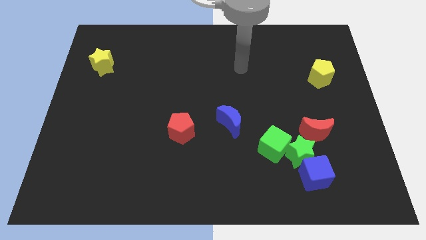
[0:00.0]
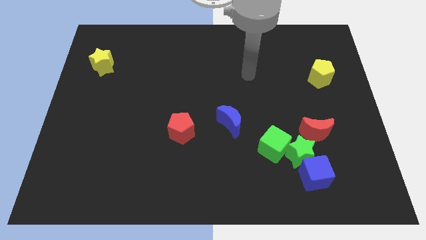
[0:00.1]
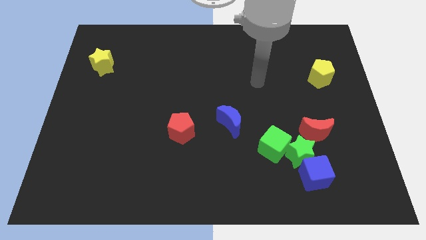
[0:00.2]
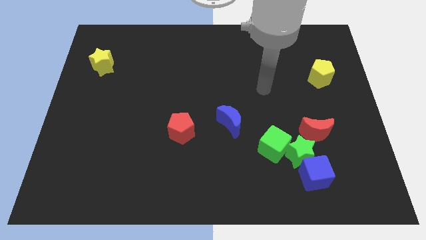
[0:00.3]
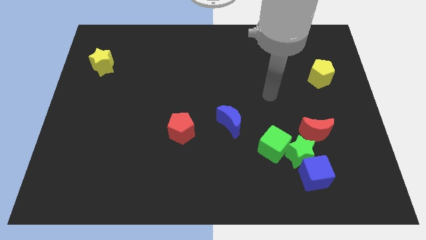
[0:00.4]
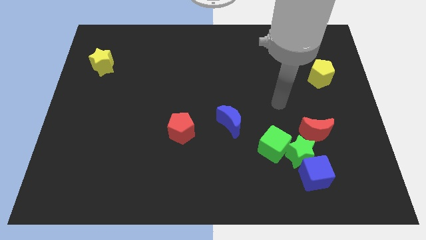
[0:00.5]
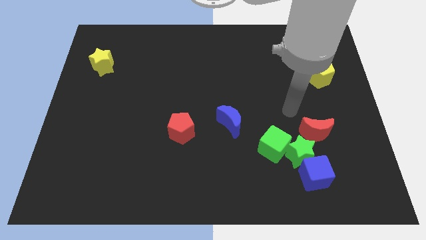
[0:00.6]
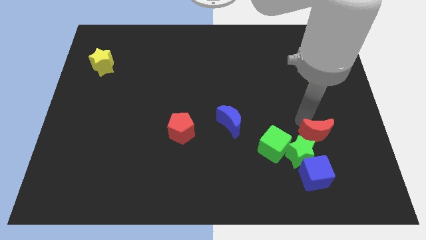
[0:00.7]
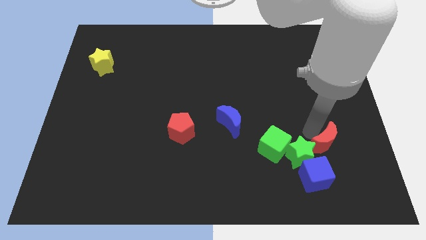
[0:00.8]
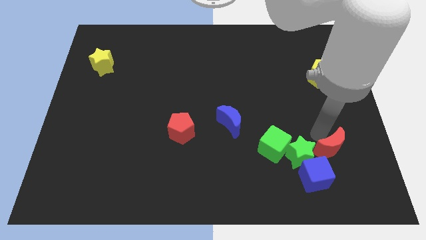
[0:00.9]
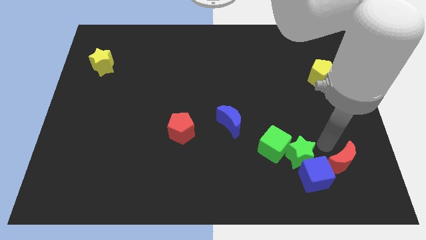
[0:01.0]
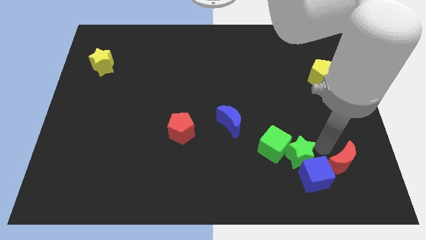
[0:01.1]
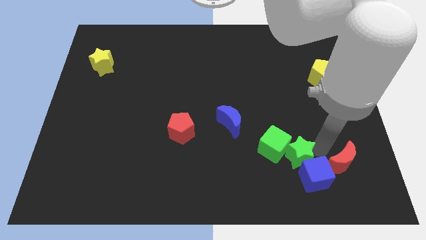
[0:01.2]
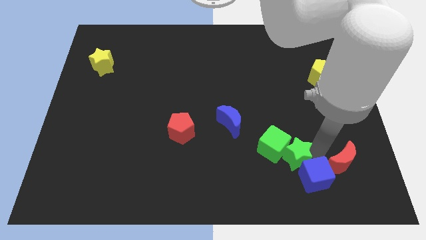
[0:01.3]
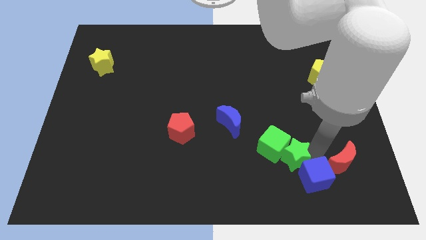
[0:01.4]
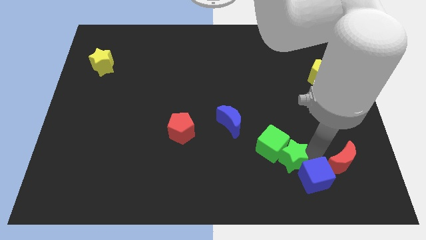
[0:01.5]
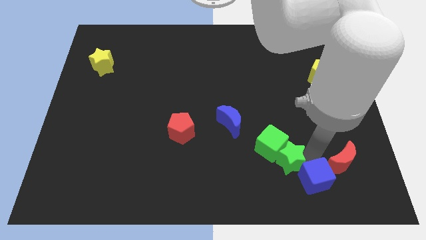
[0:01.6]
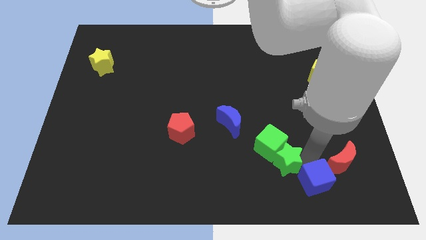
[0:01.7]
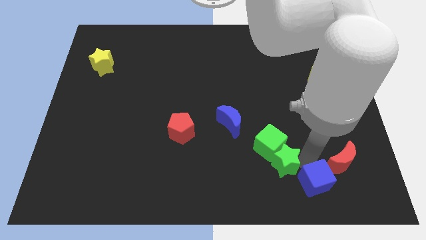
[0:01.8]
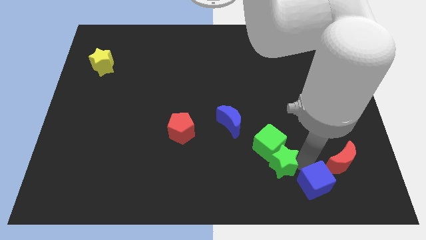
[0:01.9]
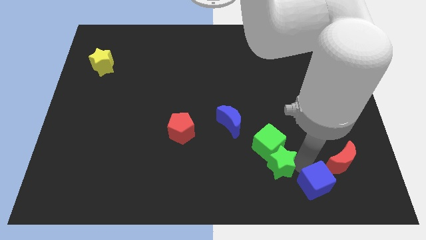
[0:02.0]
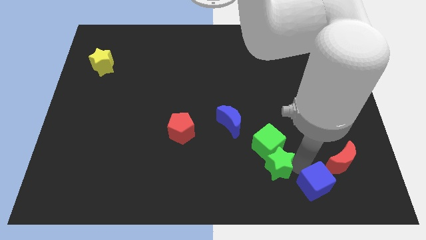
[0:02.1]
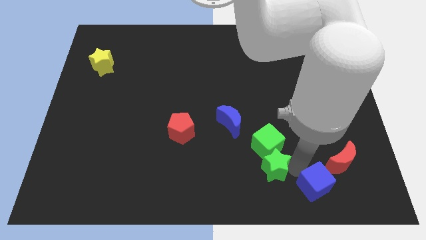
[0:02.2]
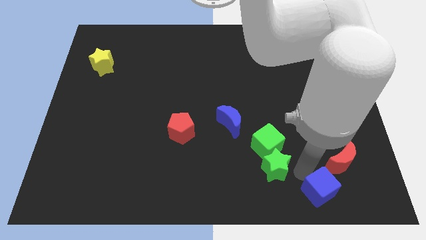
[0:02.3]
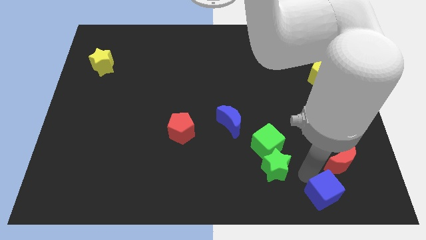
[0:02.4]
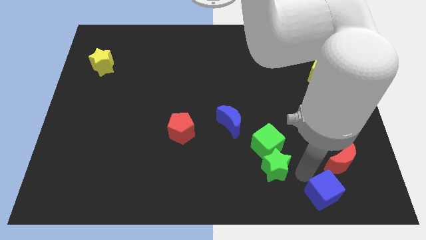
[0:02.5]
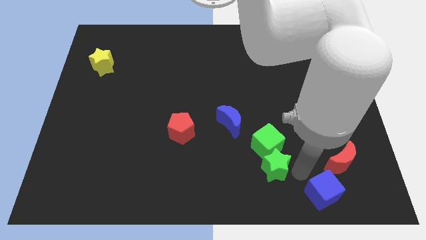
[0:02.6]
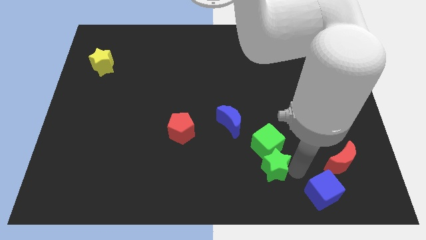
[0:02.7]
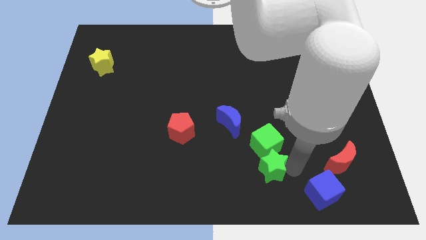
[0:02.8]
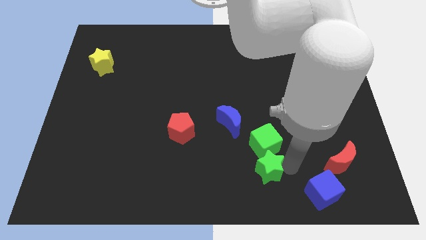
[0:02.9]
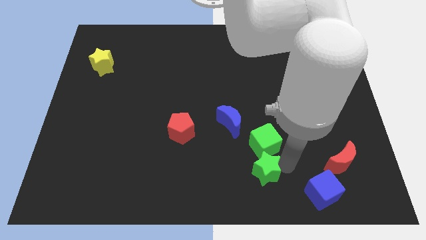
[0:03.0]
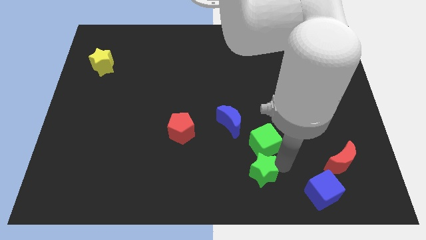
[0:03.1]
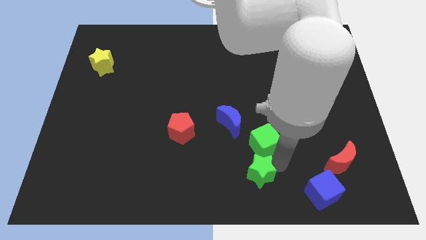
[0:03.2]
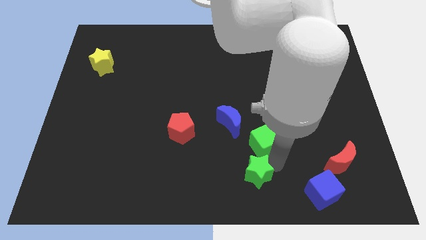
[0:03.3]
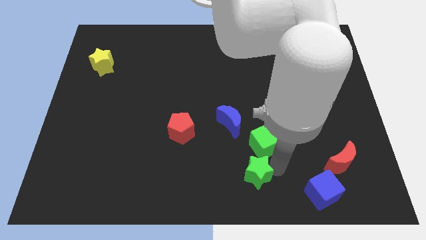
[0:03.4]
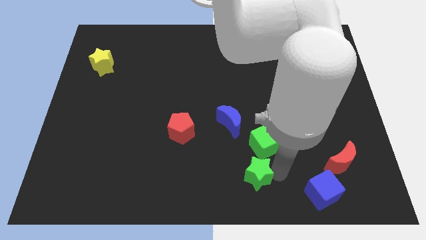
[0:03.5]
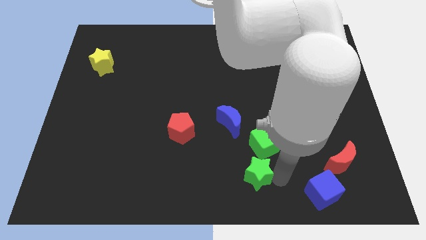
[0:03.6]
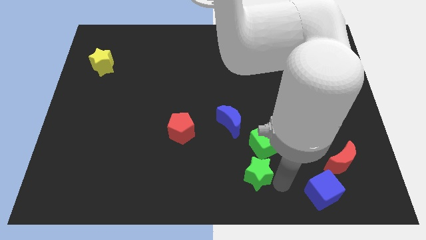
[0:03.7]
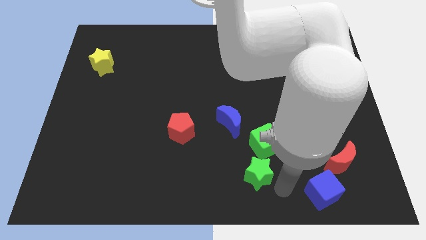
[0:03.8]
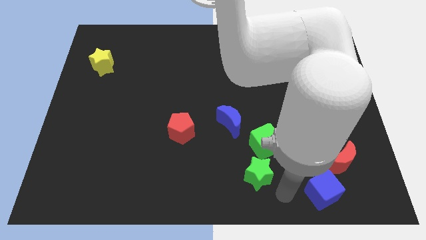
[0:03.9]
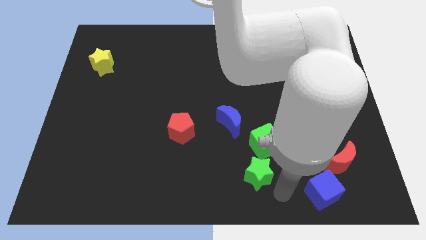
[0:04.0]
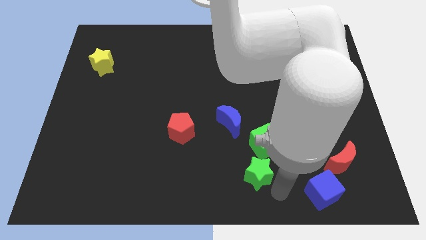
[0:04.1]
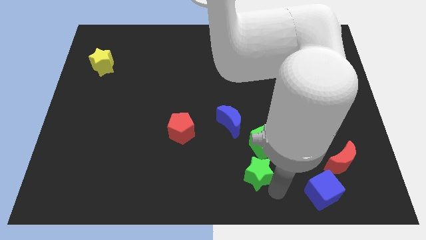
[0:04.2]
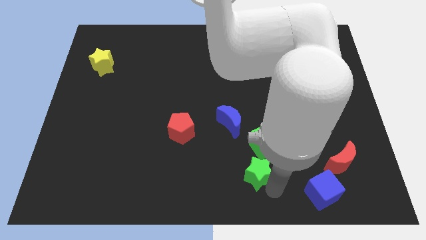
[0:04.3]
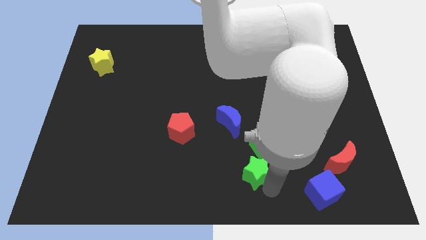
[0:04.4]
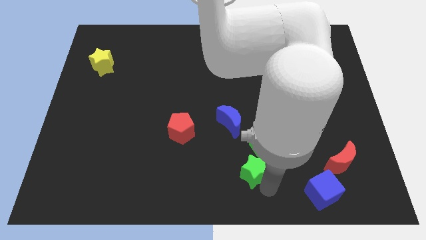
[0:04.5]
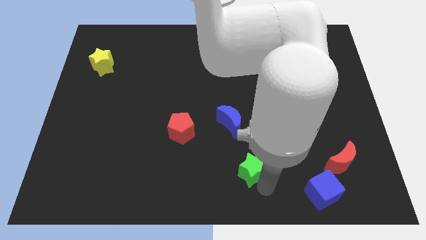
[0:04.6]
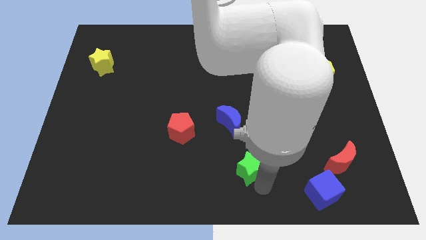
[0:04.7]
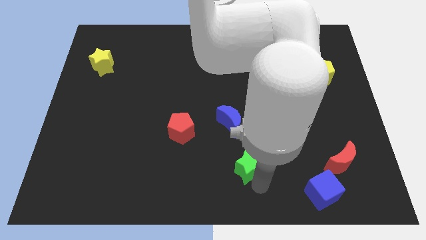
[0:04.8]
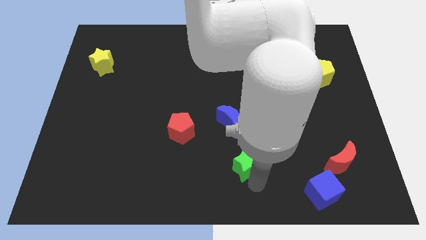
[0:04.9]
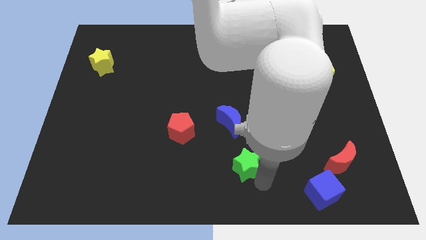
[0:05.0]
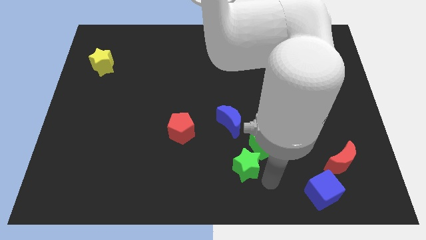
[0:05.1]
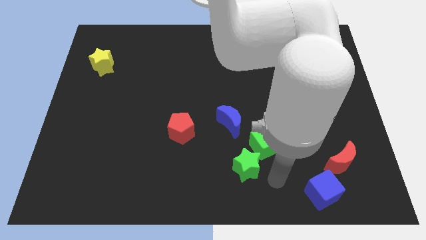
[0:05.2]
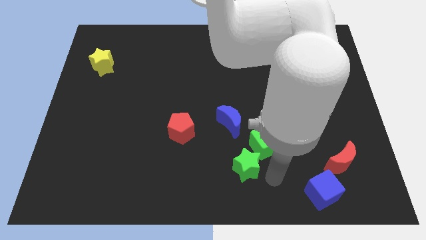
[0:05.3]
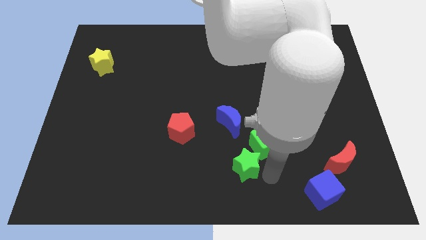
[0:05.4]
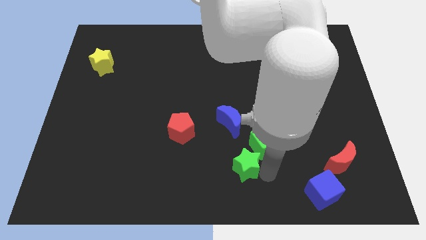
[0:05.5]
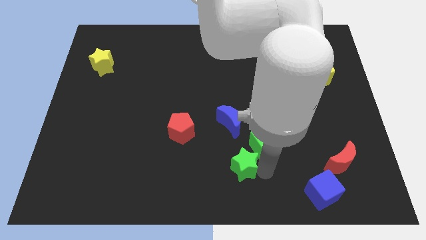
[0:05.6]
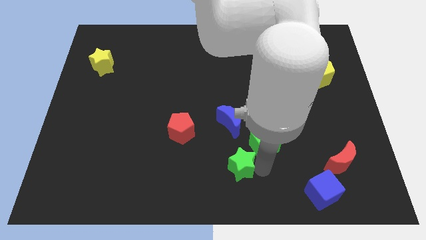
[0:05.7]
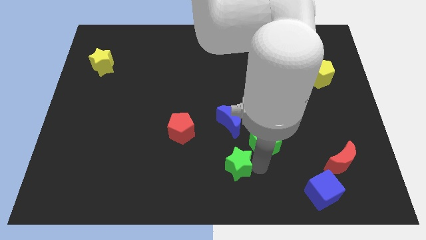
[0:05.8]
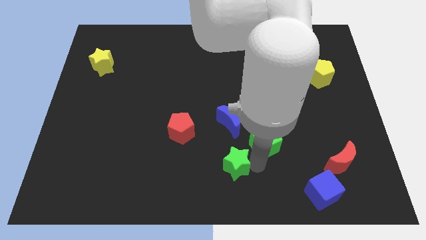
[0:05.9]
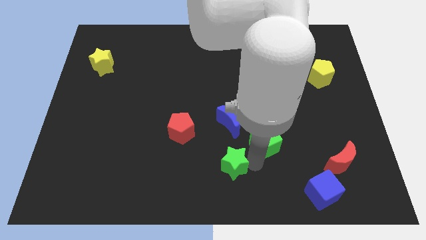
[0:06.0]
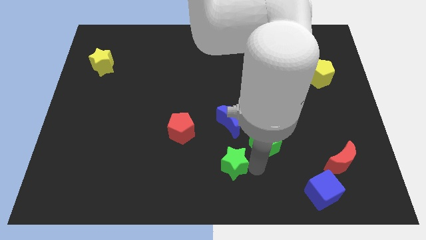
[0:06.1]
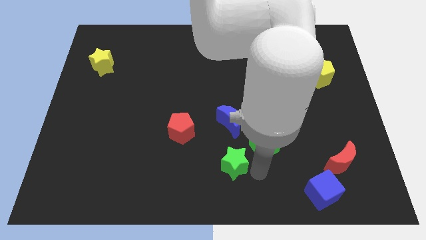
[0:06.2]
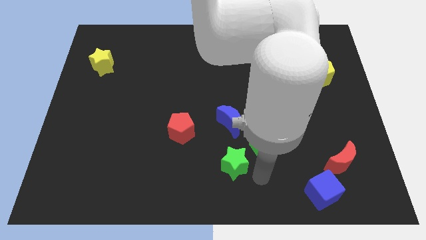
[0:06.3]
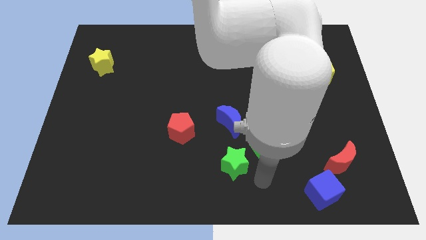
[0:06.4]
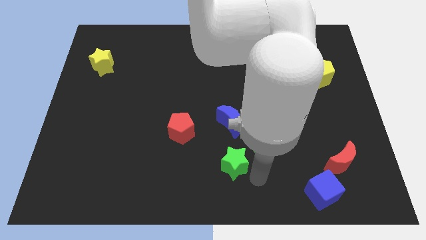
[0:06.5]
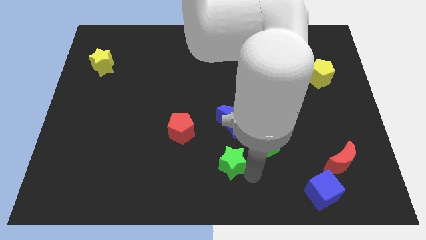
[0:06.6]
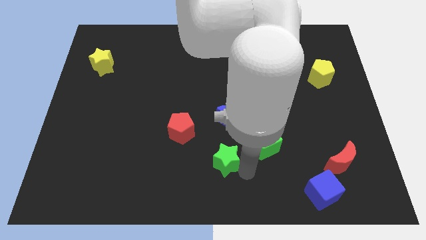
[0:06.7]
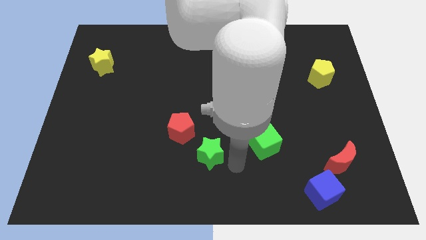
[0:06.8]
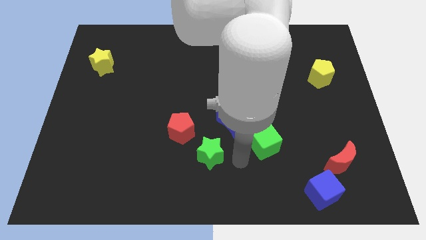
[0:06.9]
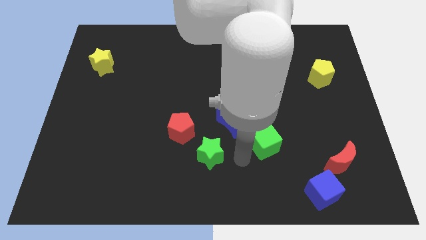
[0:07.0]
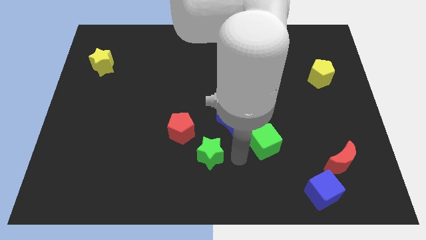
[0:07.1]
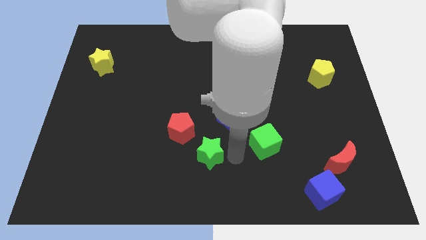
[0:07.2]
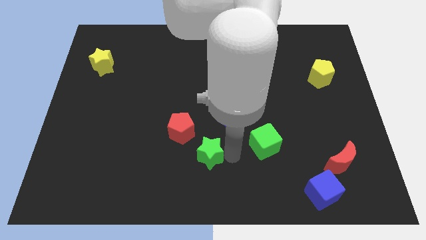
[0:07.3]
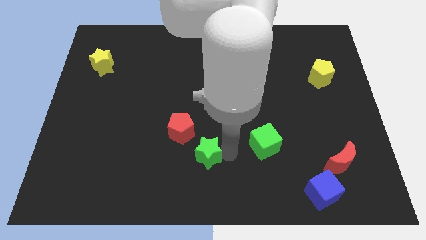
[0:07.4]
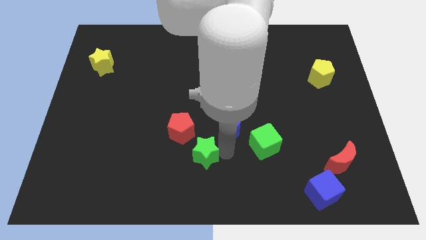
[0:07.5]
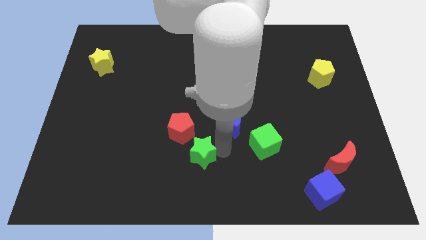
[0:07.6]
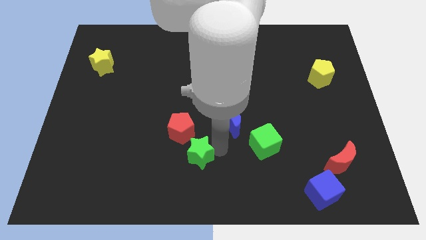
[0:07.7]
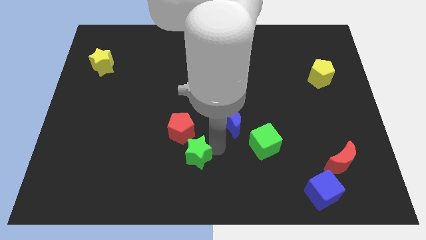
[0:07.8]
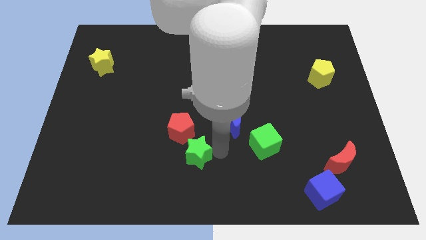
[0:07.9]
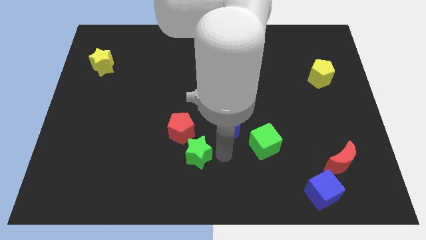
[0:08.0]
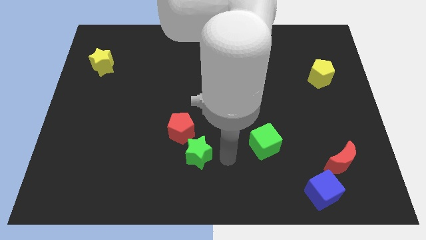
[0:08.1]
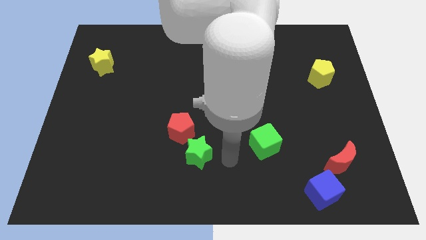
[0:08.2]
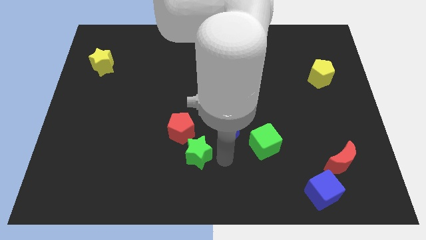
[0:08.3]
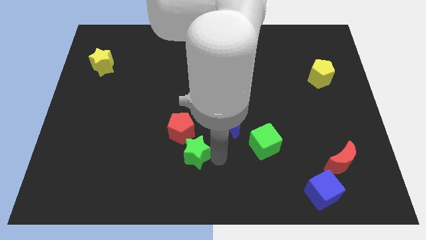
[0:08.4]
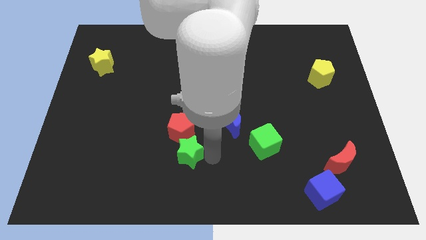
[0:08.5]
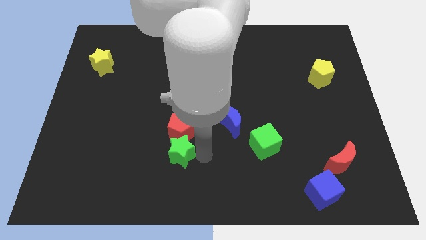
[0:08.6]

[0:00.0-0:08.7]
put the green star to the bottom left side of the red pentagon
